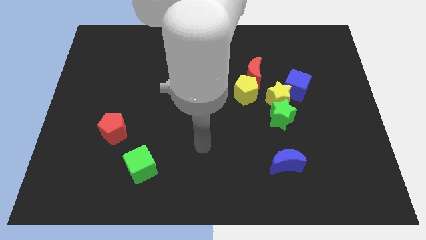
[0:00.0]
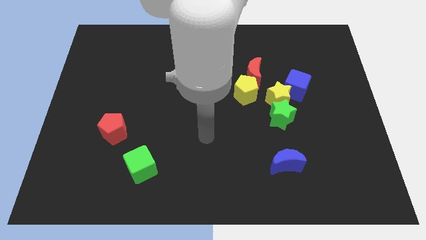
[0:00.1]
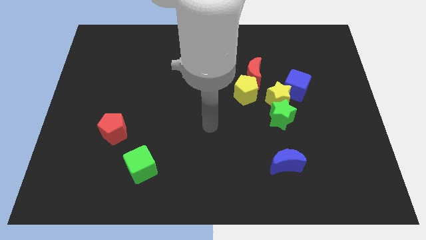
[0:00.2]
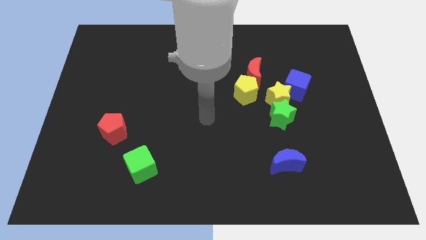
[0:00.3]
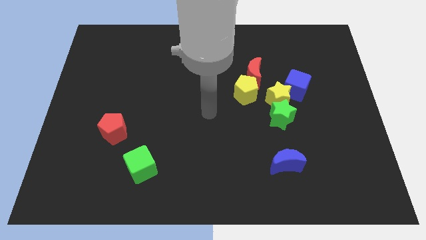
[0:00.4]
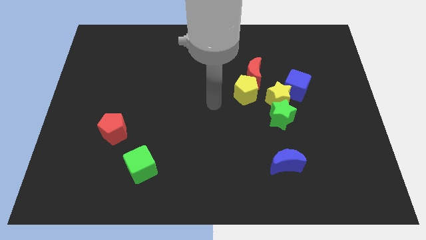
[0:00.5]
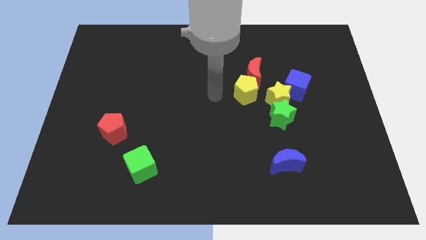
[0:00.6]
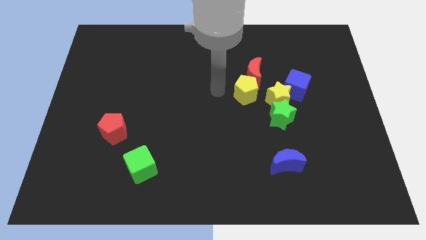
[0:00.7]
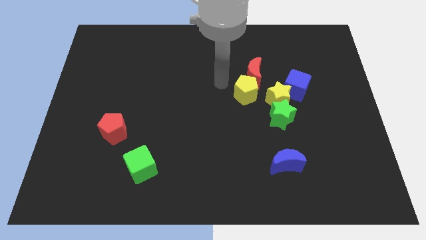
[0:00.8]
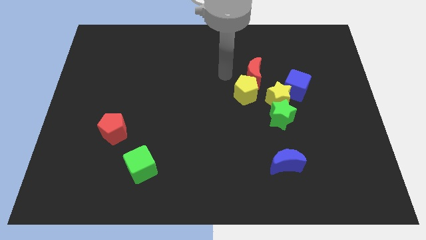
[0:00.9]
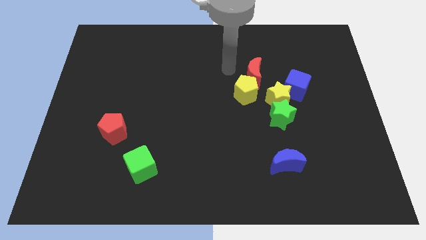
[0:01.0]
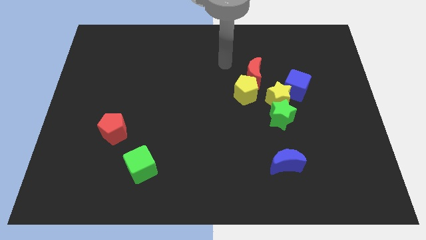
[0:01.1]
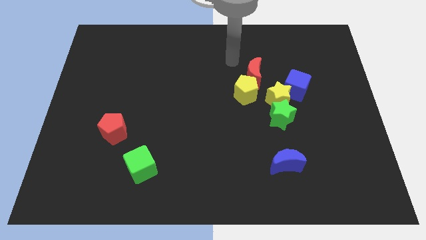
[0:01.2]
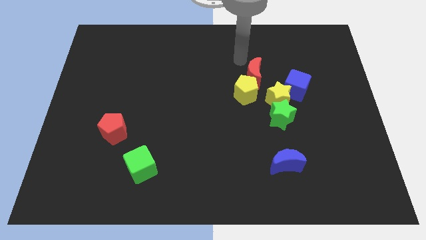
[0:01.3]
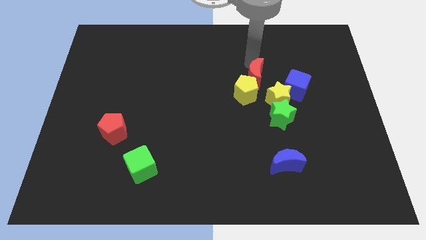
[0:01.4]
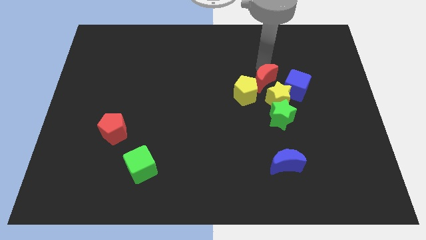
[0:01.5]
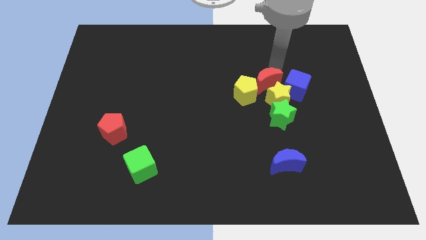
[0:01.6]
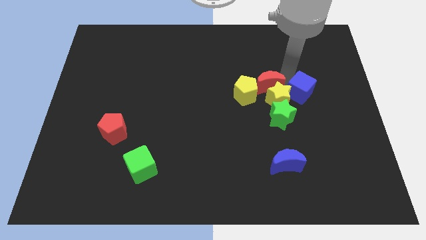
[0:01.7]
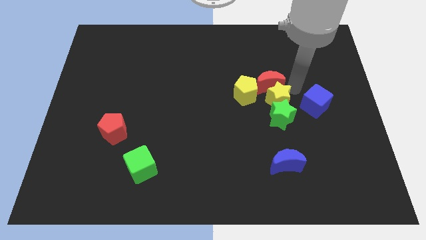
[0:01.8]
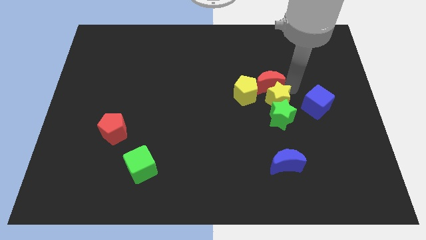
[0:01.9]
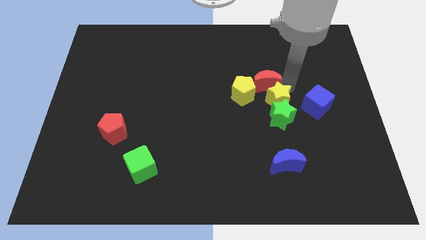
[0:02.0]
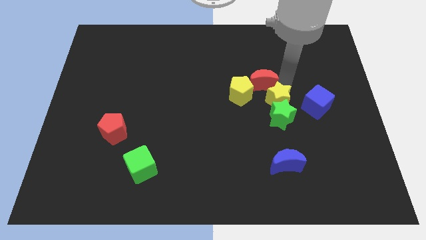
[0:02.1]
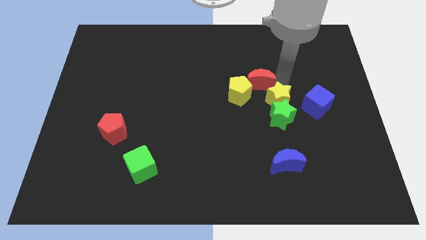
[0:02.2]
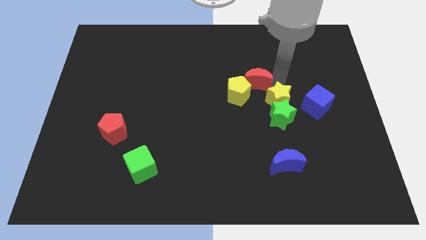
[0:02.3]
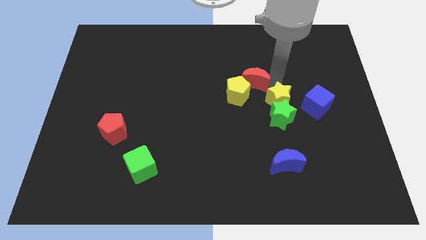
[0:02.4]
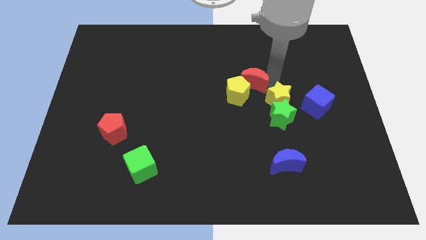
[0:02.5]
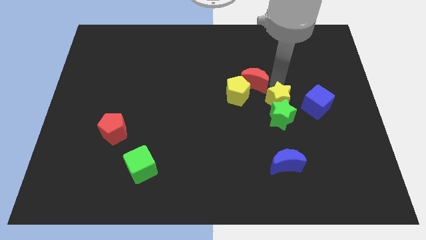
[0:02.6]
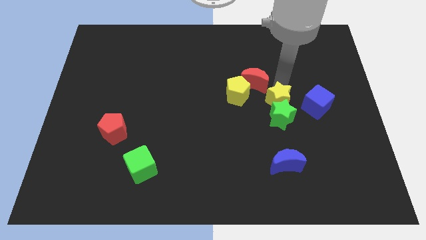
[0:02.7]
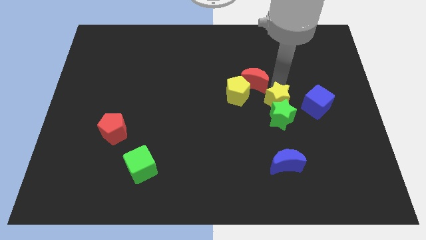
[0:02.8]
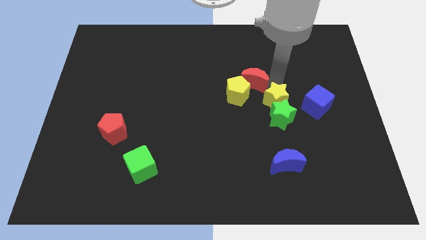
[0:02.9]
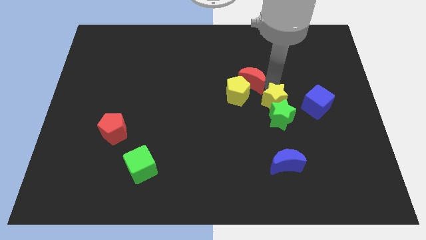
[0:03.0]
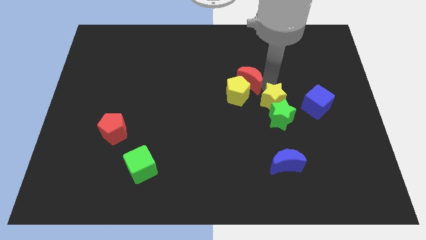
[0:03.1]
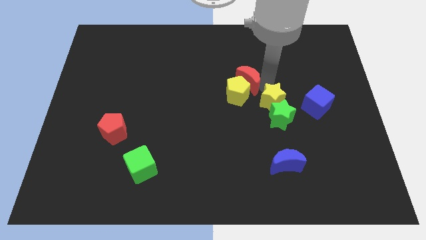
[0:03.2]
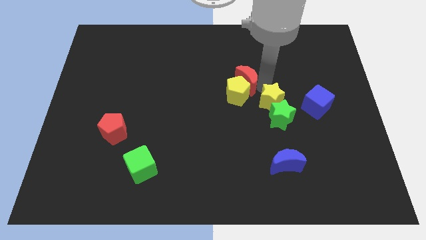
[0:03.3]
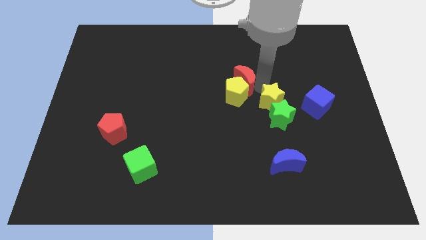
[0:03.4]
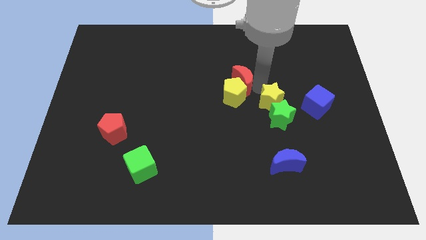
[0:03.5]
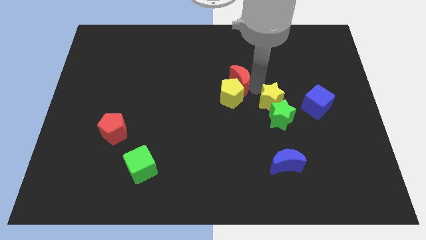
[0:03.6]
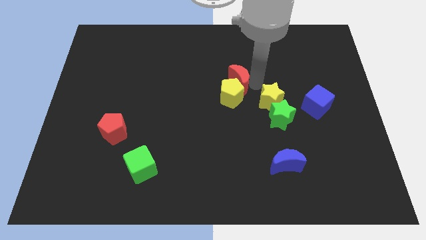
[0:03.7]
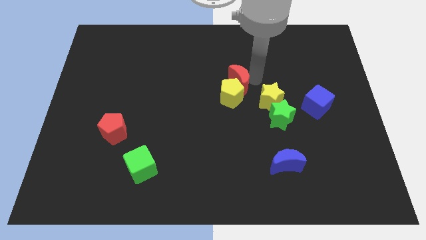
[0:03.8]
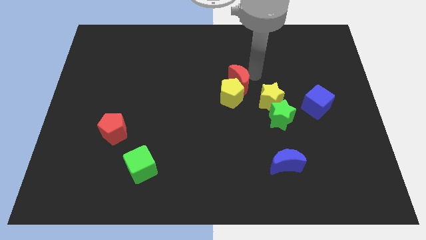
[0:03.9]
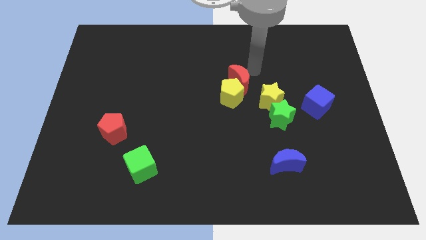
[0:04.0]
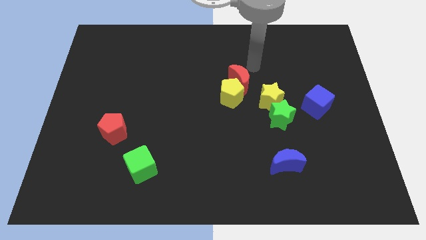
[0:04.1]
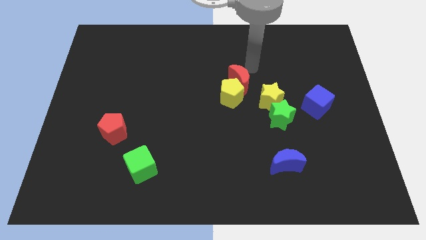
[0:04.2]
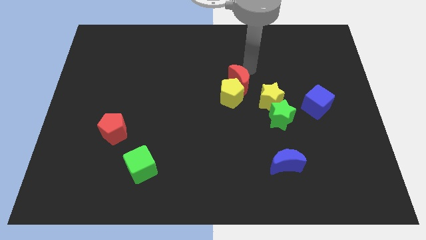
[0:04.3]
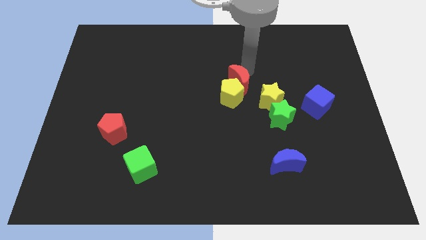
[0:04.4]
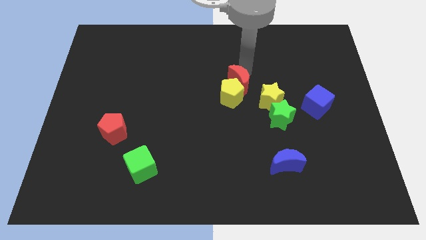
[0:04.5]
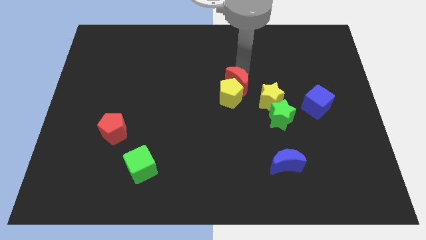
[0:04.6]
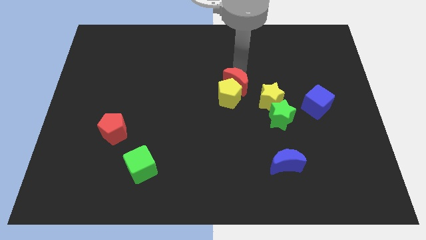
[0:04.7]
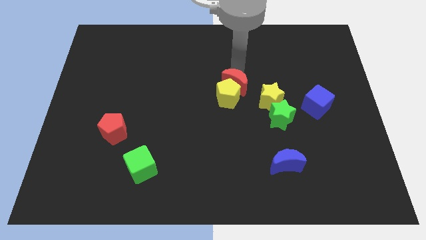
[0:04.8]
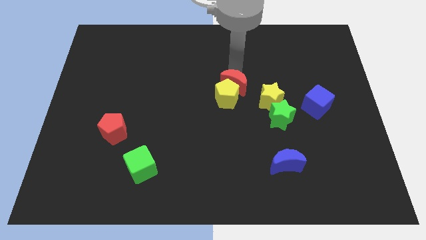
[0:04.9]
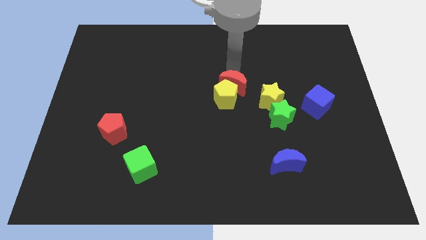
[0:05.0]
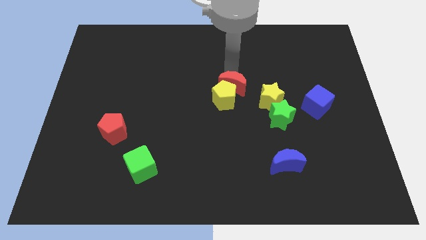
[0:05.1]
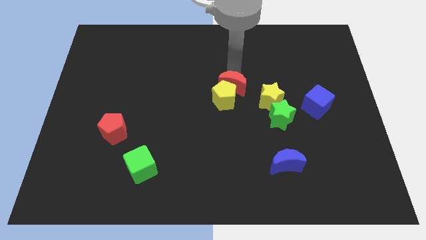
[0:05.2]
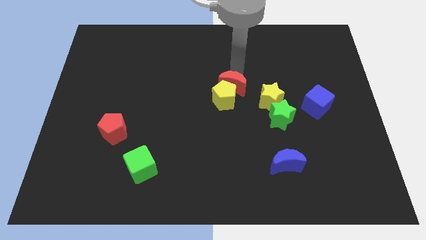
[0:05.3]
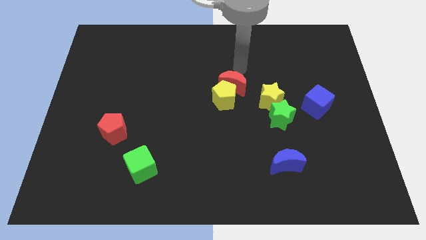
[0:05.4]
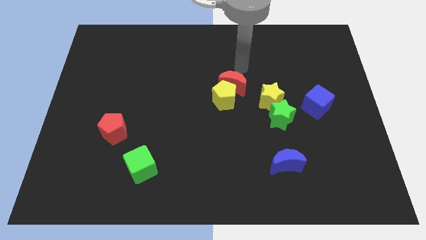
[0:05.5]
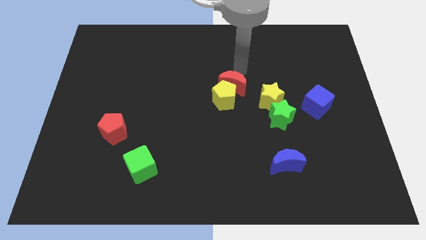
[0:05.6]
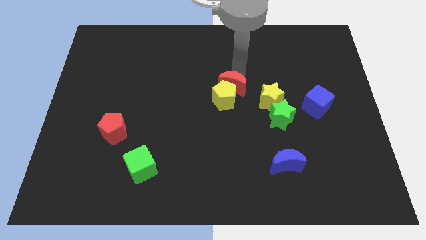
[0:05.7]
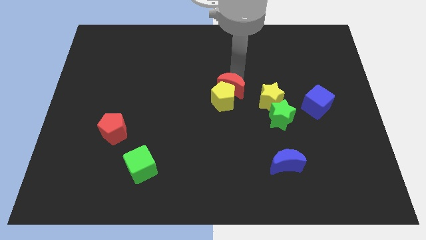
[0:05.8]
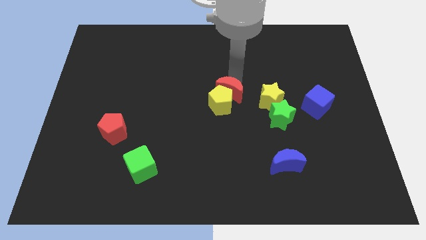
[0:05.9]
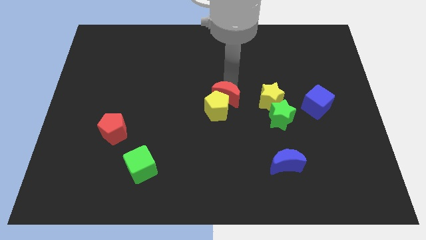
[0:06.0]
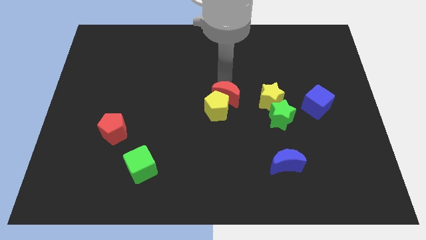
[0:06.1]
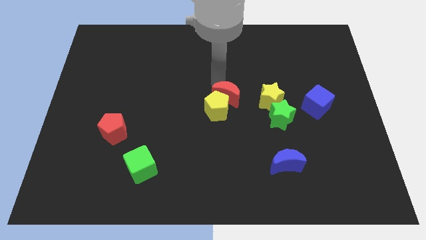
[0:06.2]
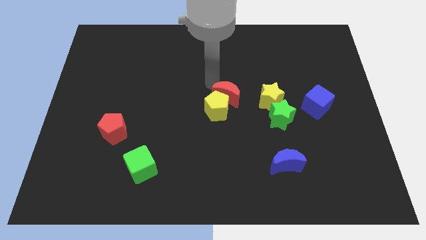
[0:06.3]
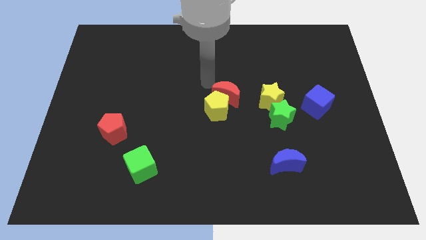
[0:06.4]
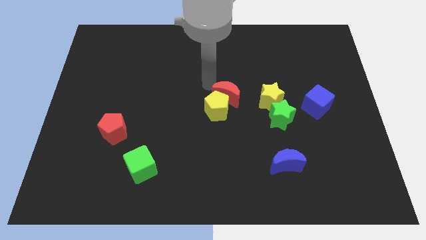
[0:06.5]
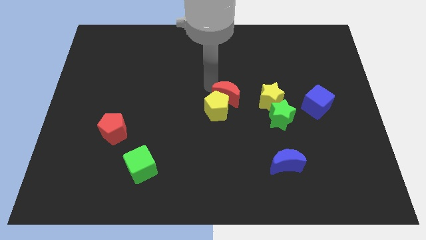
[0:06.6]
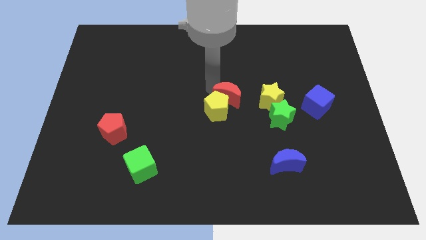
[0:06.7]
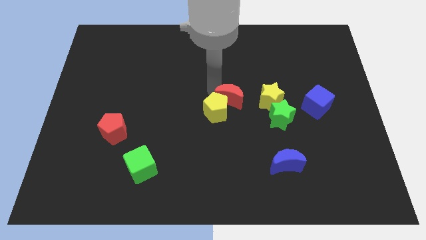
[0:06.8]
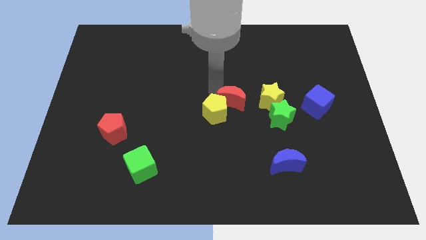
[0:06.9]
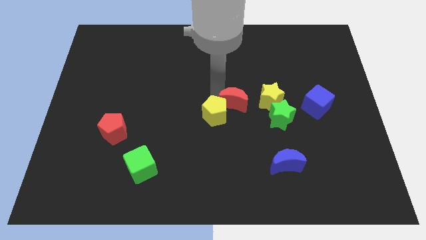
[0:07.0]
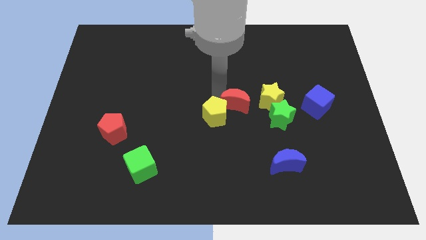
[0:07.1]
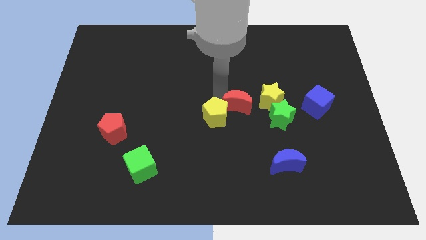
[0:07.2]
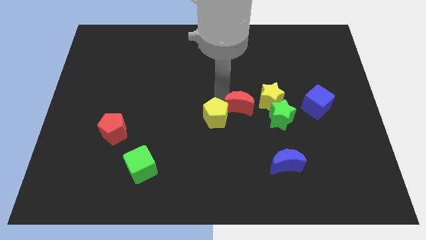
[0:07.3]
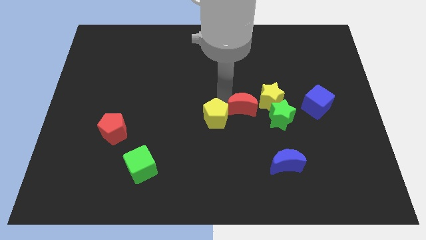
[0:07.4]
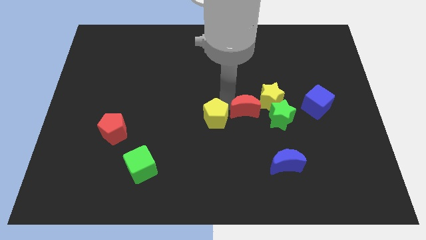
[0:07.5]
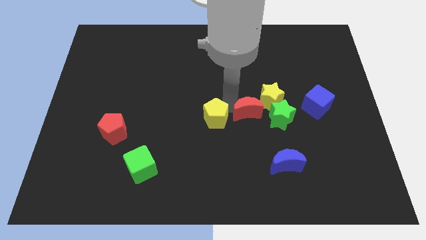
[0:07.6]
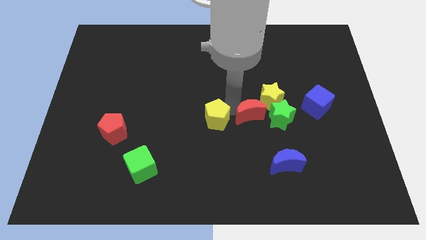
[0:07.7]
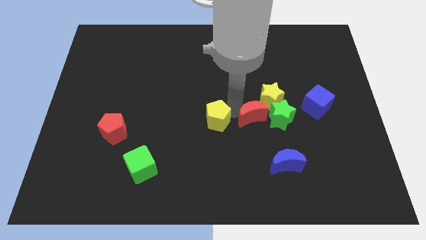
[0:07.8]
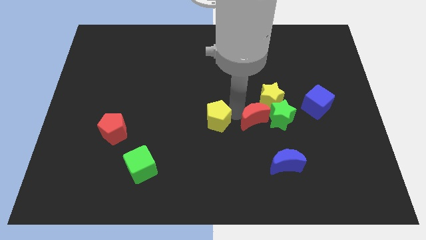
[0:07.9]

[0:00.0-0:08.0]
push the red moon next to the green star

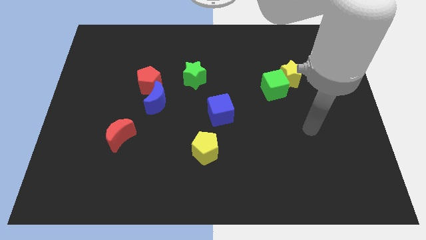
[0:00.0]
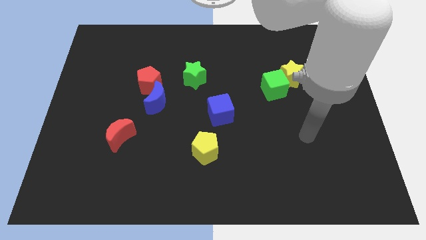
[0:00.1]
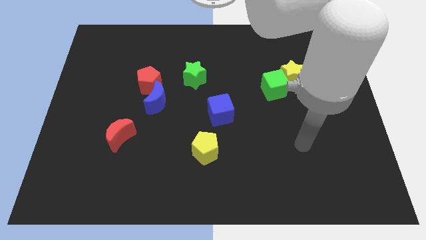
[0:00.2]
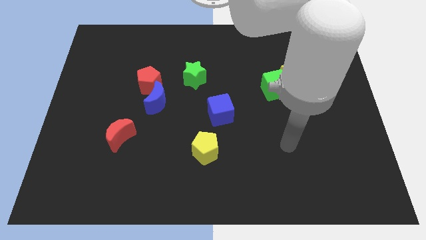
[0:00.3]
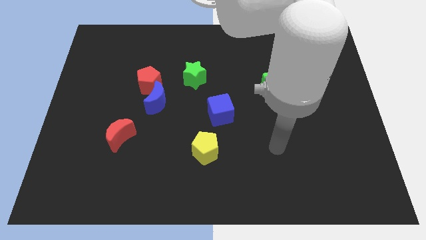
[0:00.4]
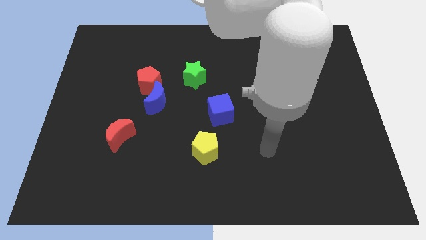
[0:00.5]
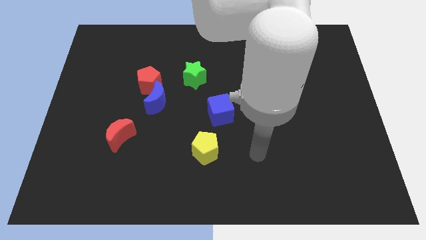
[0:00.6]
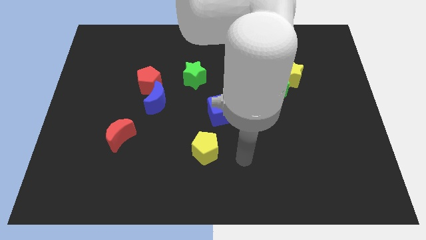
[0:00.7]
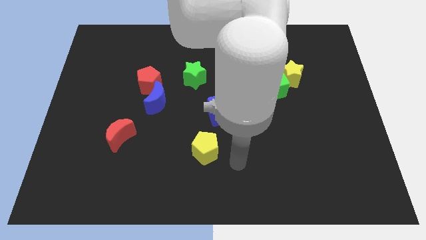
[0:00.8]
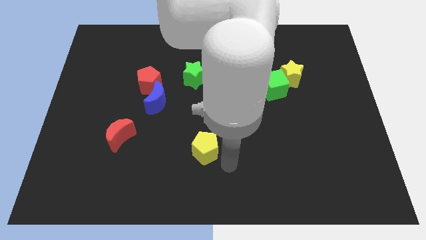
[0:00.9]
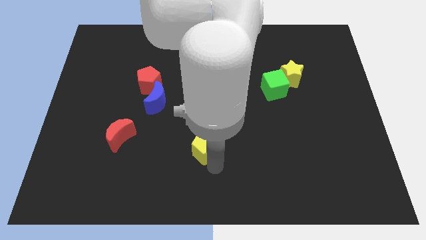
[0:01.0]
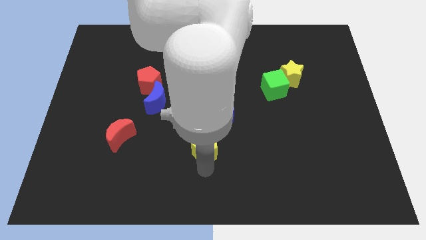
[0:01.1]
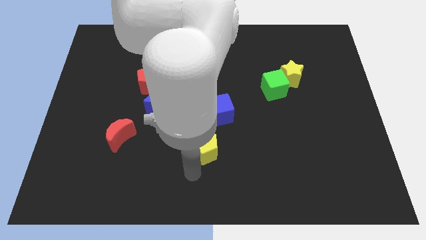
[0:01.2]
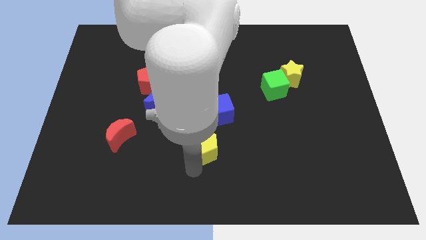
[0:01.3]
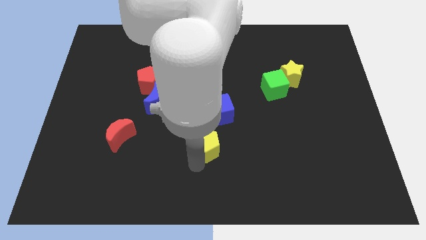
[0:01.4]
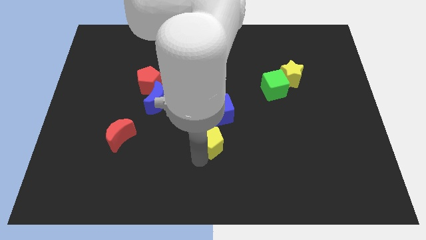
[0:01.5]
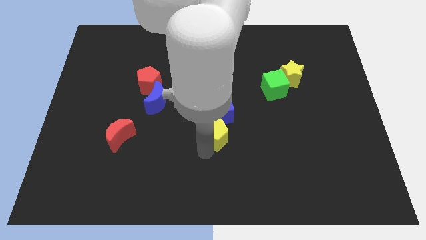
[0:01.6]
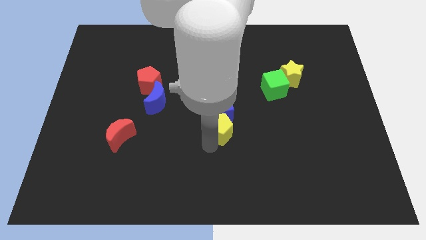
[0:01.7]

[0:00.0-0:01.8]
push the yellow pentagon towards the blue cube
